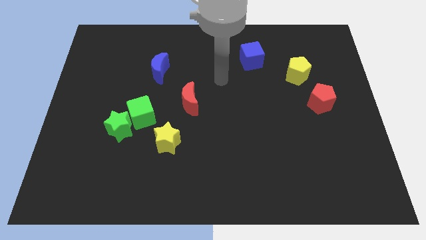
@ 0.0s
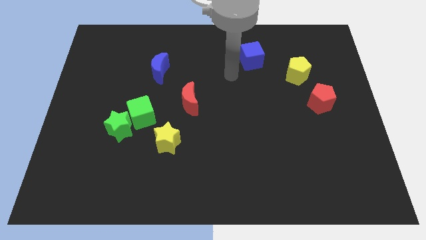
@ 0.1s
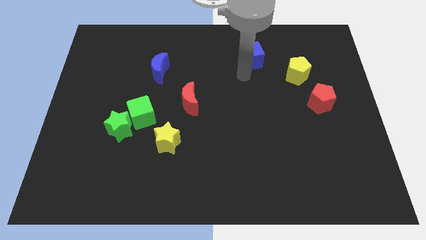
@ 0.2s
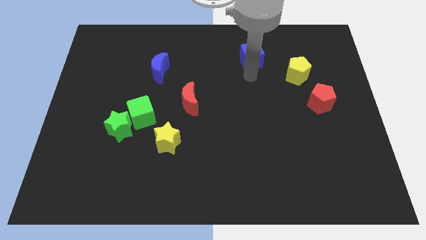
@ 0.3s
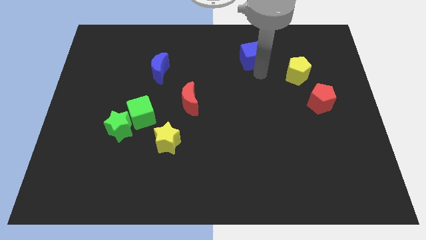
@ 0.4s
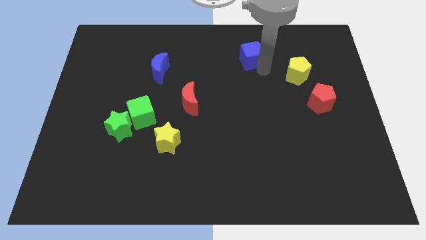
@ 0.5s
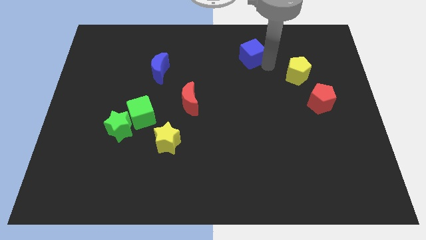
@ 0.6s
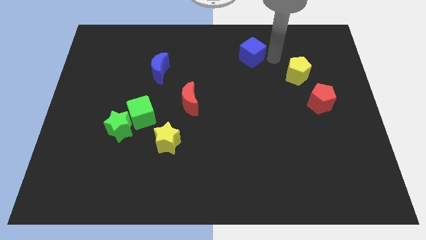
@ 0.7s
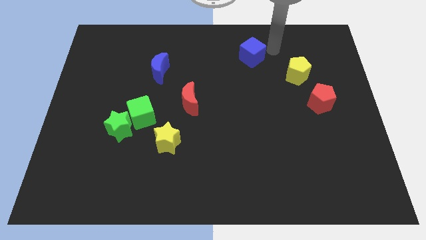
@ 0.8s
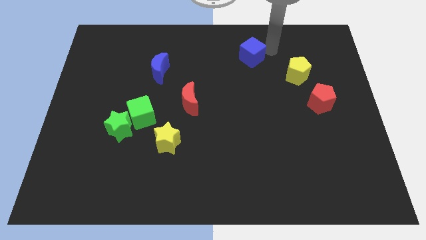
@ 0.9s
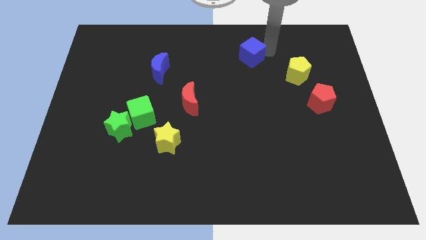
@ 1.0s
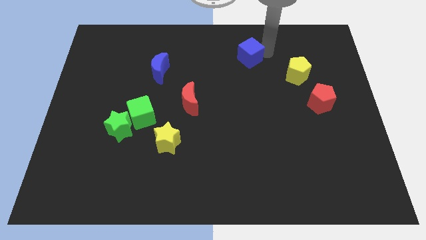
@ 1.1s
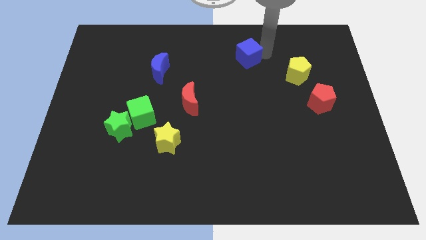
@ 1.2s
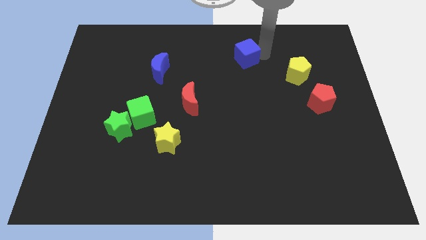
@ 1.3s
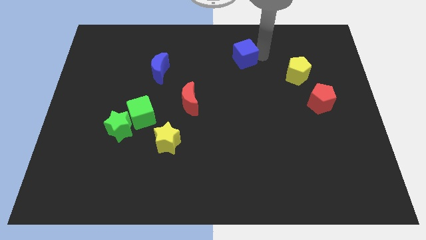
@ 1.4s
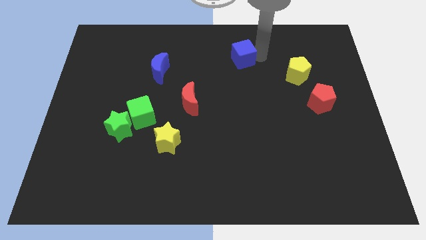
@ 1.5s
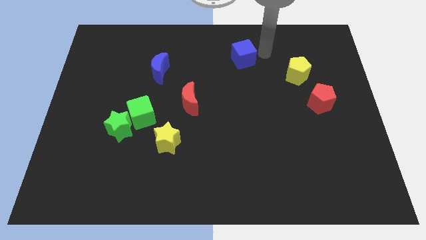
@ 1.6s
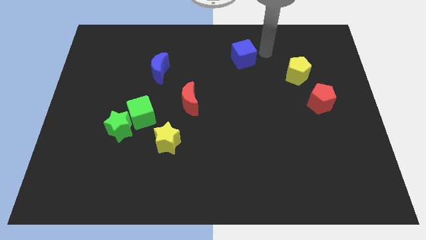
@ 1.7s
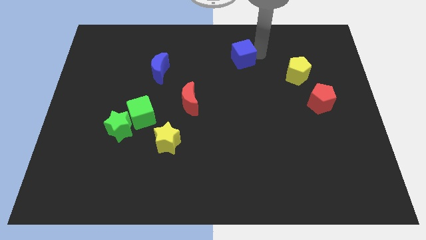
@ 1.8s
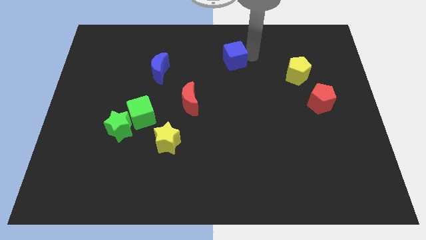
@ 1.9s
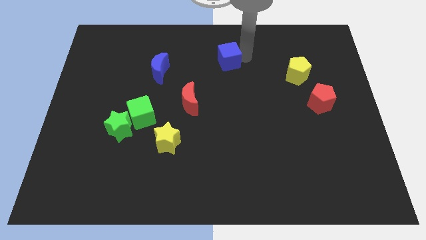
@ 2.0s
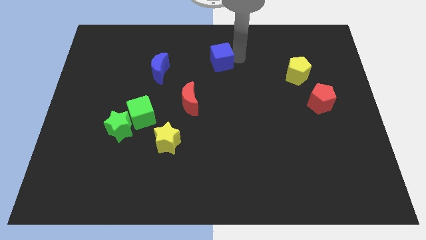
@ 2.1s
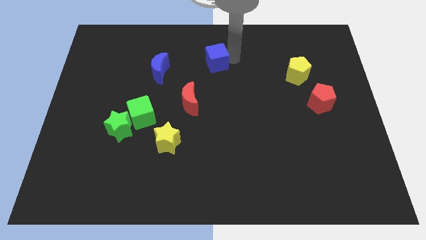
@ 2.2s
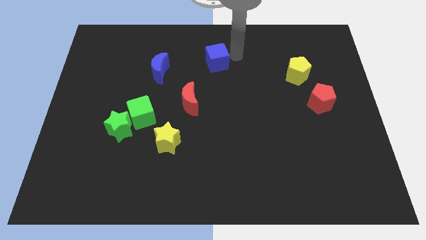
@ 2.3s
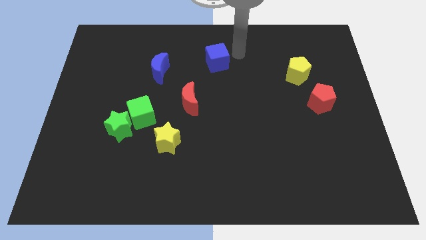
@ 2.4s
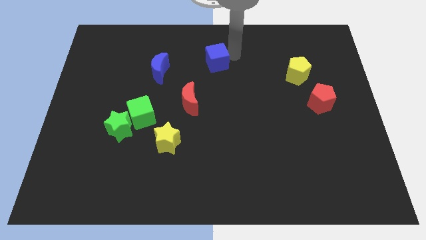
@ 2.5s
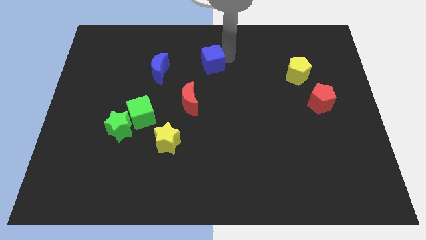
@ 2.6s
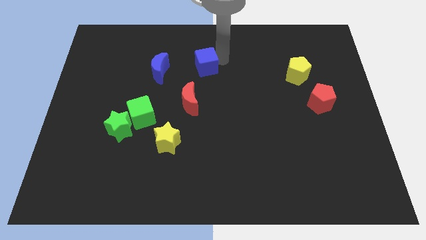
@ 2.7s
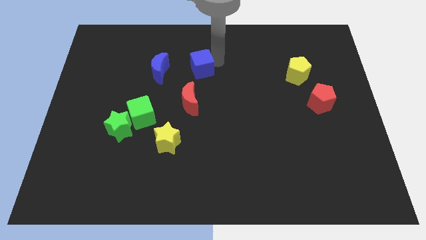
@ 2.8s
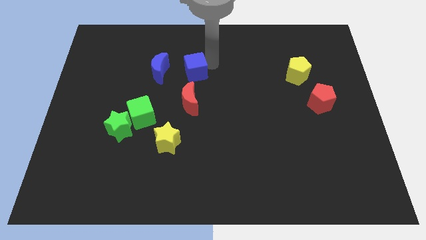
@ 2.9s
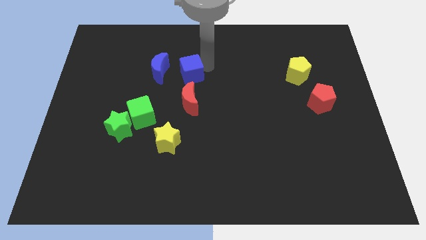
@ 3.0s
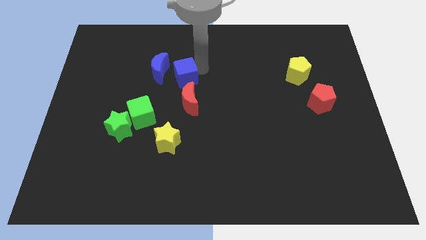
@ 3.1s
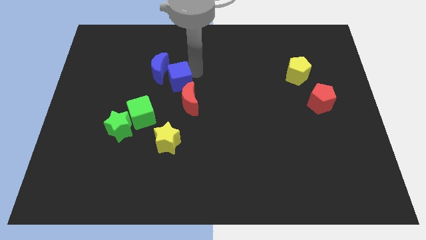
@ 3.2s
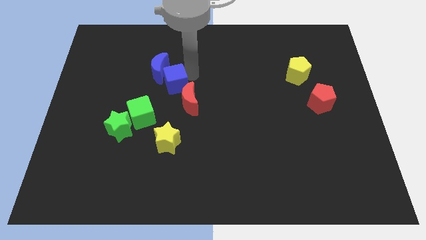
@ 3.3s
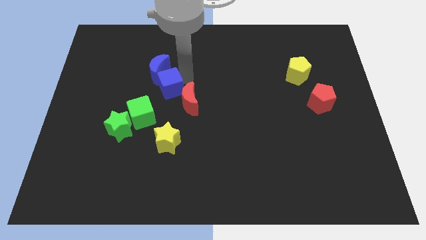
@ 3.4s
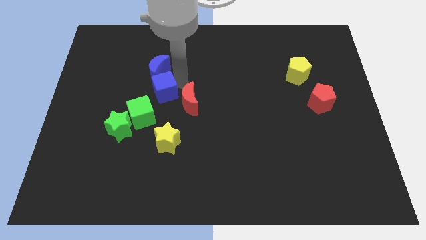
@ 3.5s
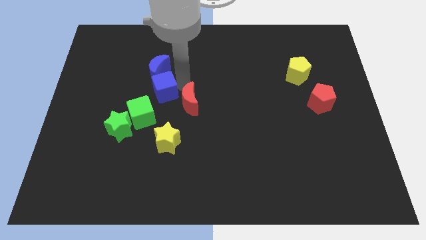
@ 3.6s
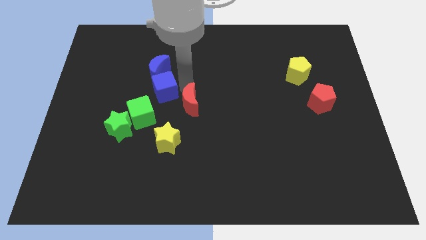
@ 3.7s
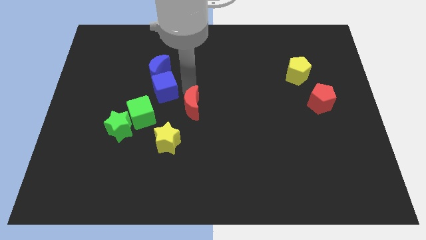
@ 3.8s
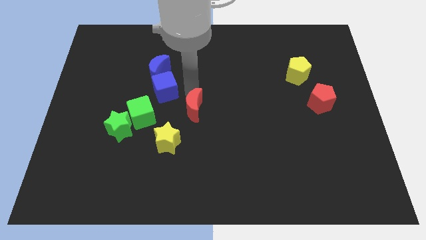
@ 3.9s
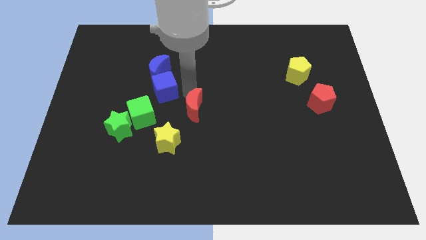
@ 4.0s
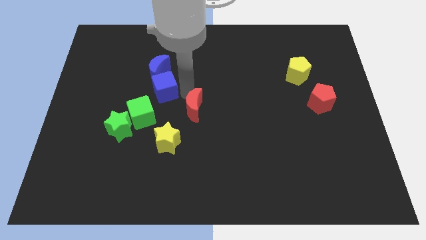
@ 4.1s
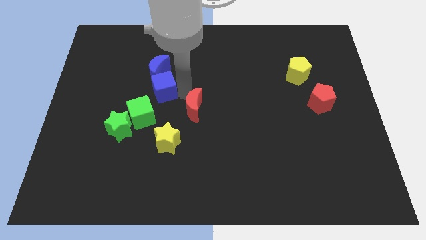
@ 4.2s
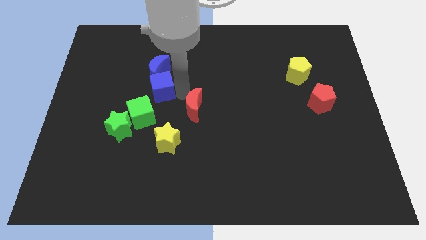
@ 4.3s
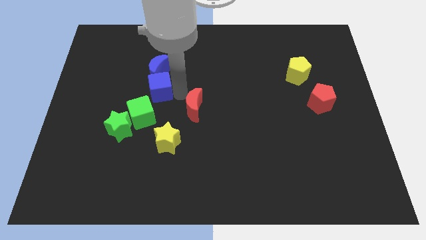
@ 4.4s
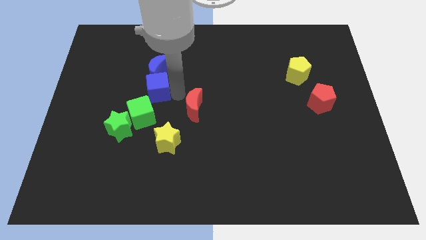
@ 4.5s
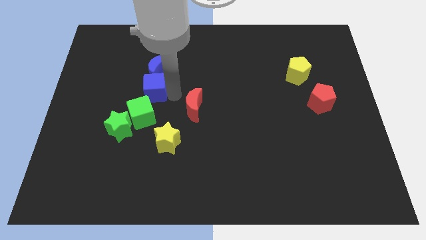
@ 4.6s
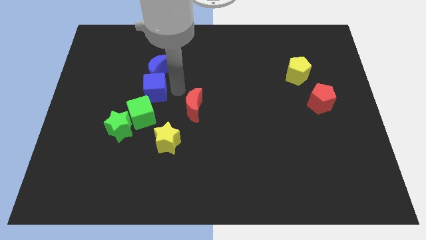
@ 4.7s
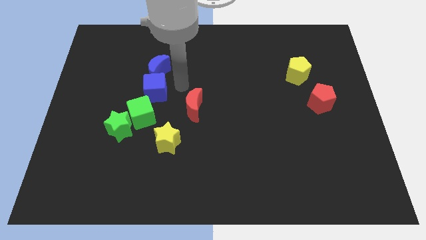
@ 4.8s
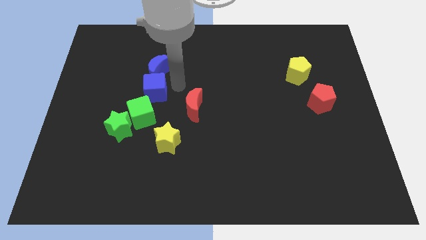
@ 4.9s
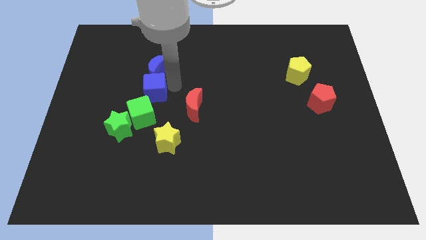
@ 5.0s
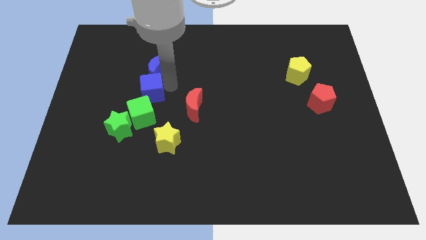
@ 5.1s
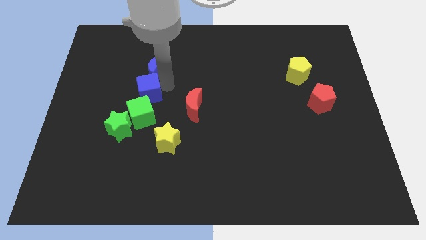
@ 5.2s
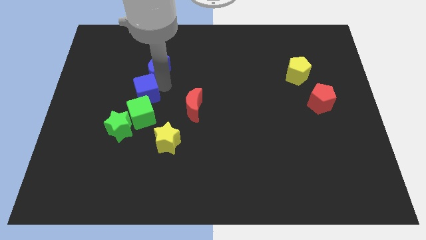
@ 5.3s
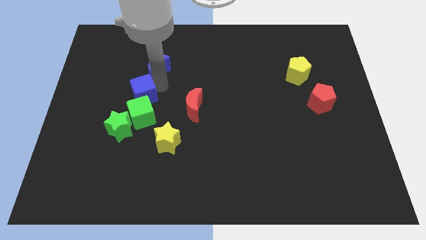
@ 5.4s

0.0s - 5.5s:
slide the blue cube diagonally up and to the left of the green cube

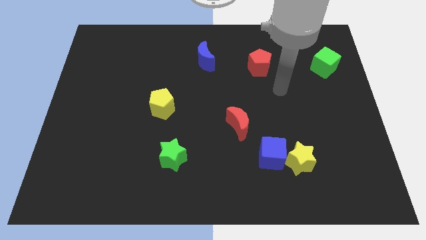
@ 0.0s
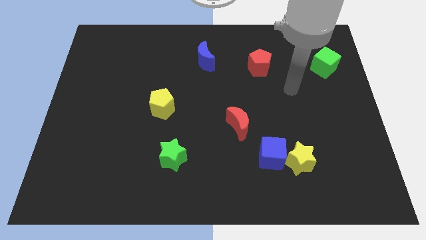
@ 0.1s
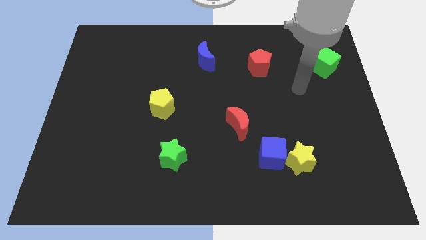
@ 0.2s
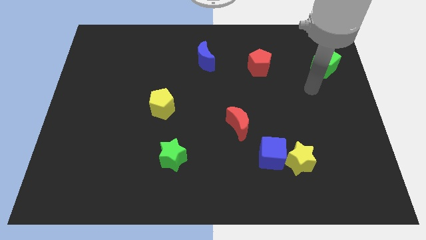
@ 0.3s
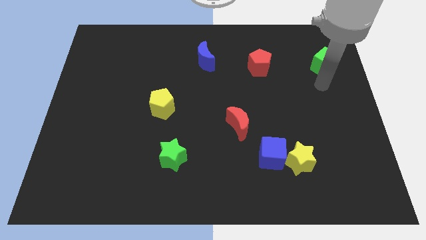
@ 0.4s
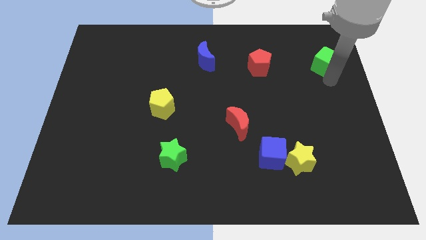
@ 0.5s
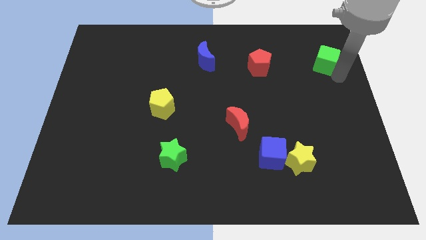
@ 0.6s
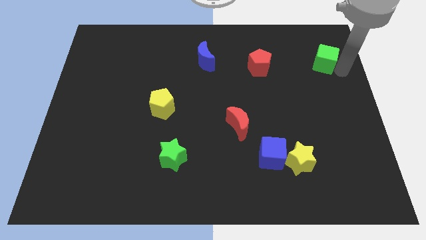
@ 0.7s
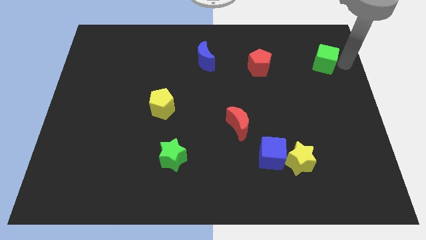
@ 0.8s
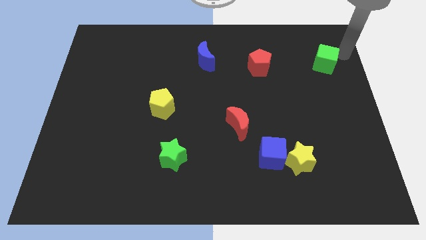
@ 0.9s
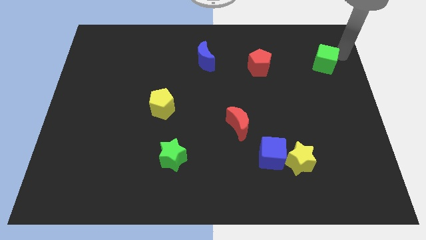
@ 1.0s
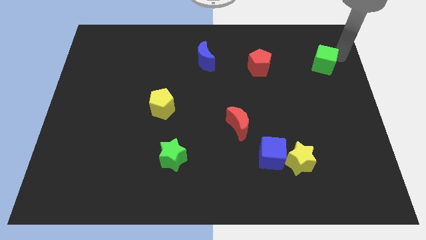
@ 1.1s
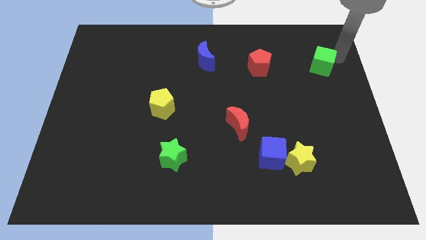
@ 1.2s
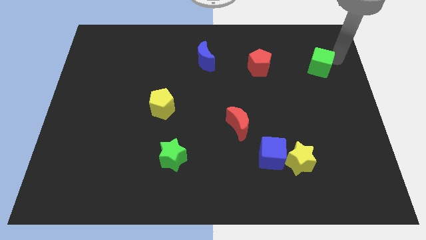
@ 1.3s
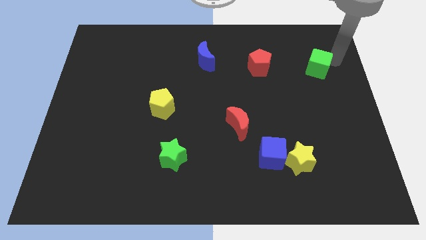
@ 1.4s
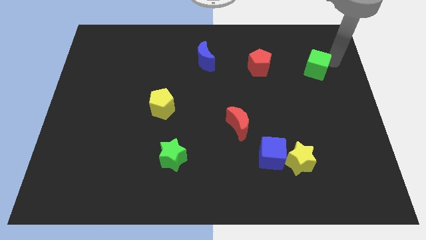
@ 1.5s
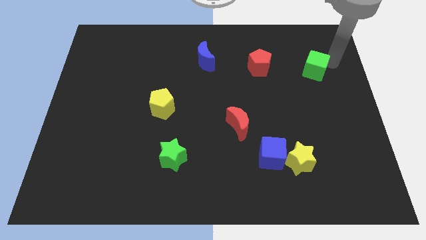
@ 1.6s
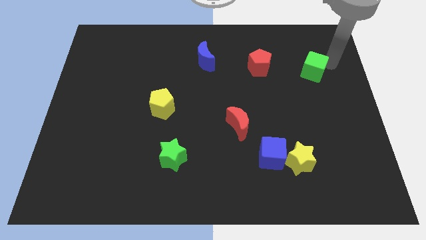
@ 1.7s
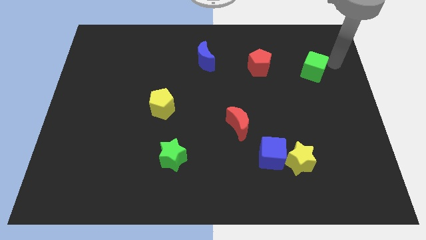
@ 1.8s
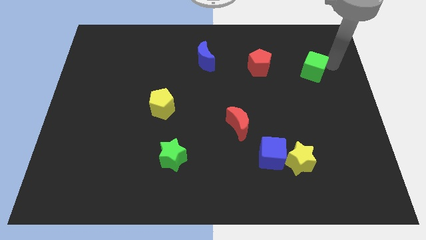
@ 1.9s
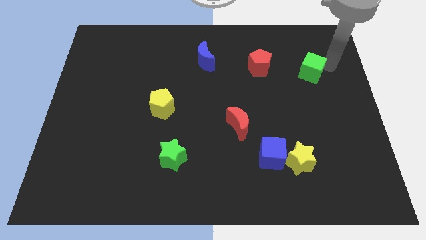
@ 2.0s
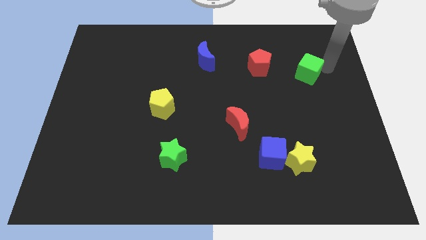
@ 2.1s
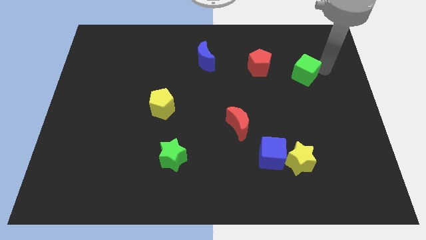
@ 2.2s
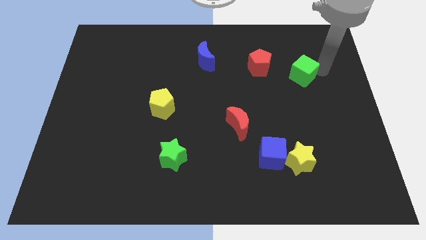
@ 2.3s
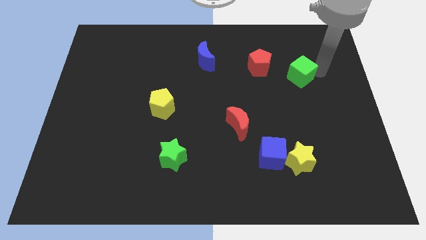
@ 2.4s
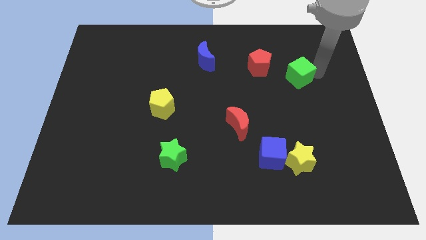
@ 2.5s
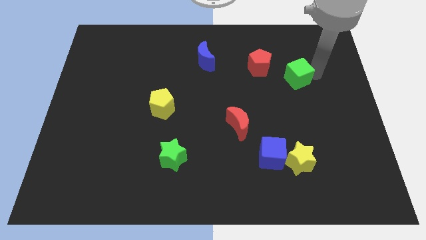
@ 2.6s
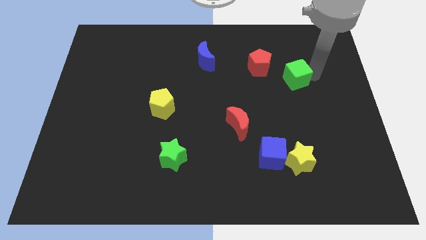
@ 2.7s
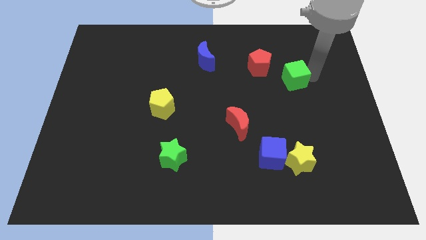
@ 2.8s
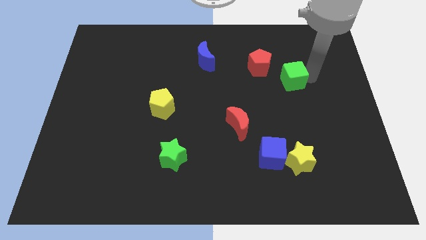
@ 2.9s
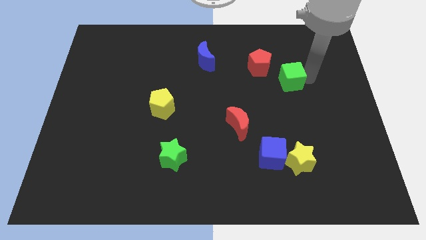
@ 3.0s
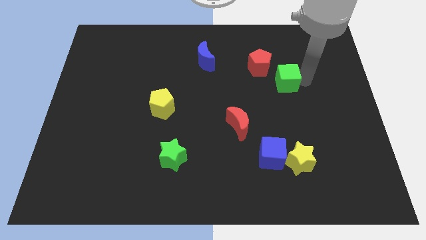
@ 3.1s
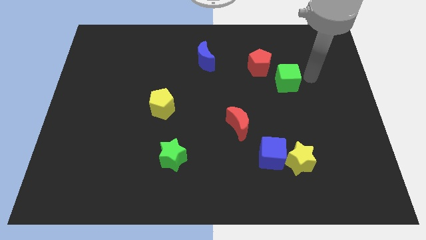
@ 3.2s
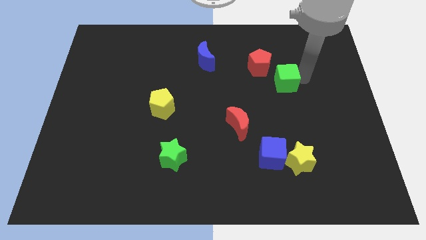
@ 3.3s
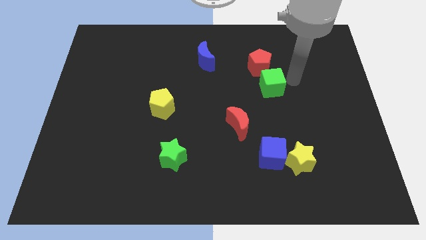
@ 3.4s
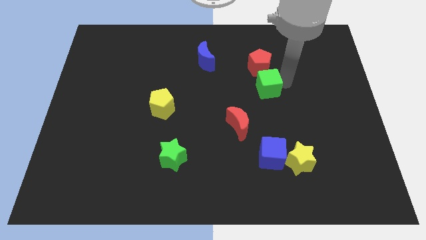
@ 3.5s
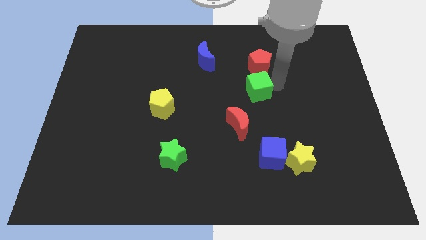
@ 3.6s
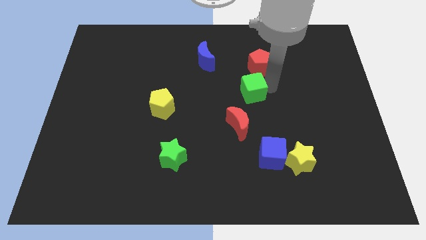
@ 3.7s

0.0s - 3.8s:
put the green cube to the top side of the red moon
